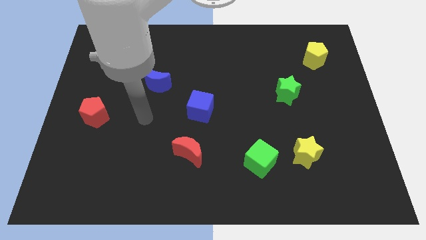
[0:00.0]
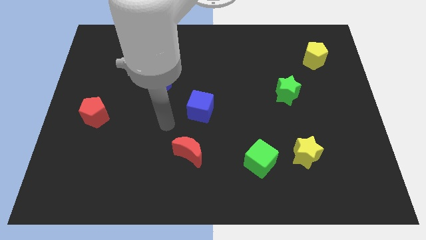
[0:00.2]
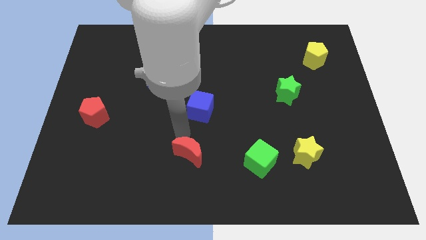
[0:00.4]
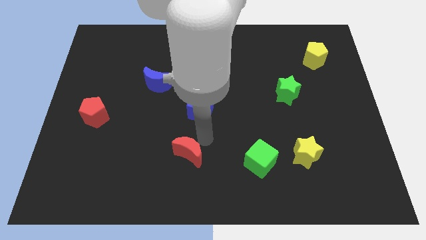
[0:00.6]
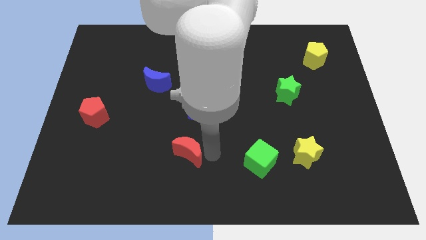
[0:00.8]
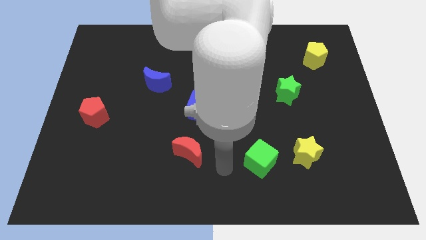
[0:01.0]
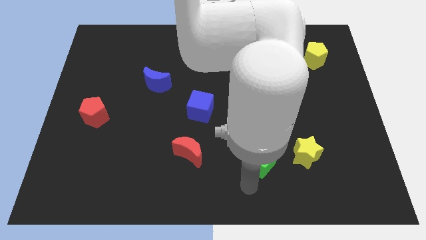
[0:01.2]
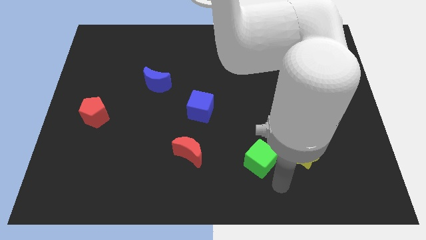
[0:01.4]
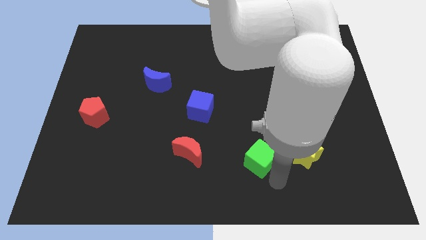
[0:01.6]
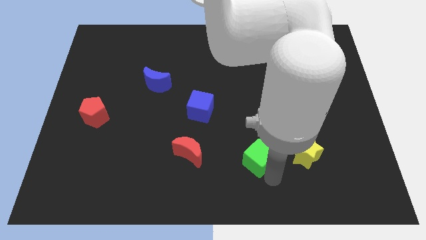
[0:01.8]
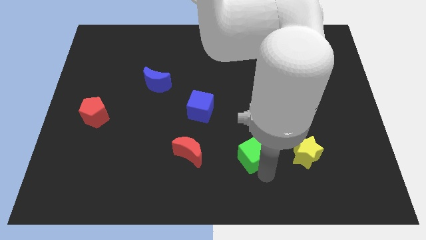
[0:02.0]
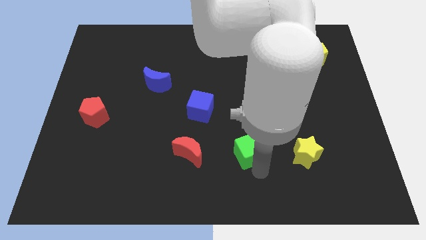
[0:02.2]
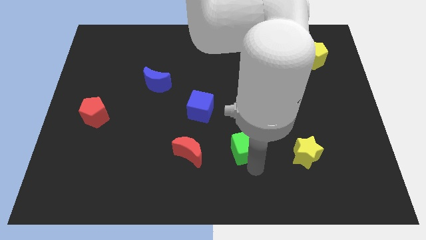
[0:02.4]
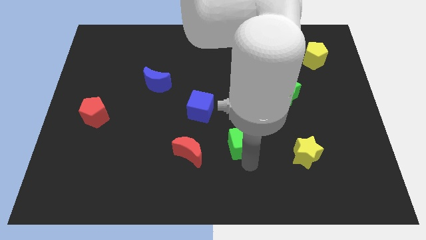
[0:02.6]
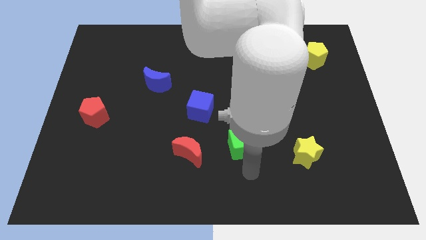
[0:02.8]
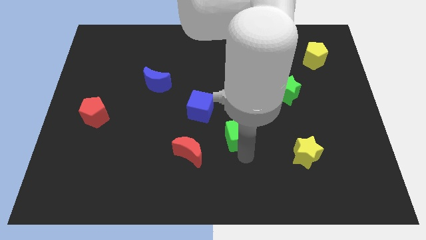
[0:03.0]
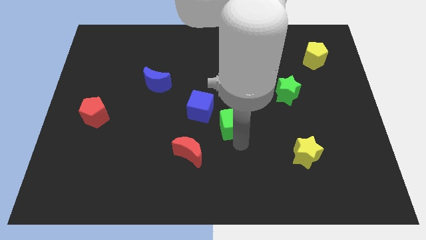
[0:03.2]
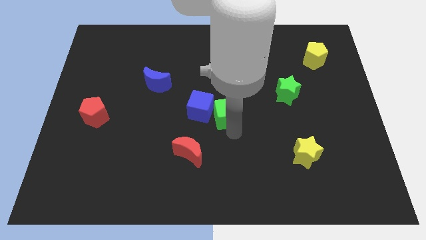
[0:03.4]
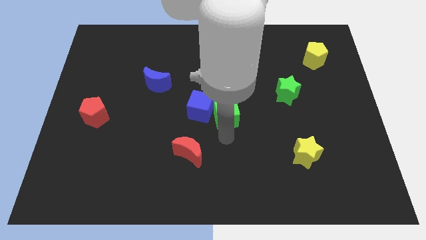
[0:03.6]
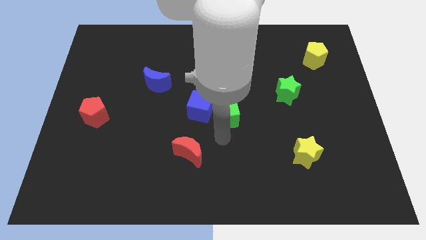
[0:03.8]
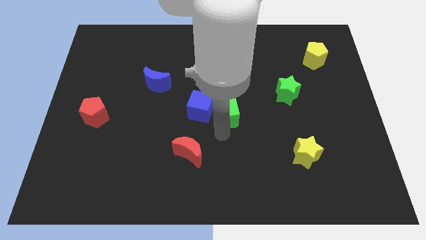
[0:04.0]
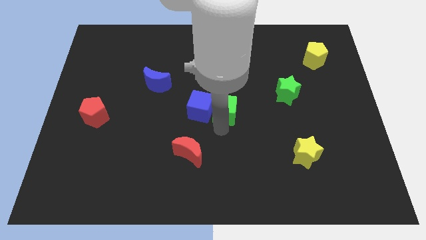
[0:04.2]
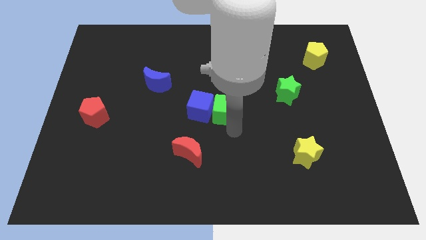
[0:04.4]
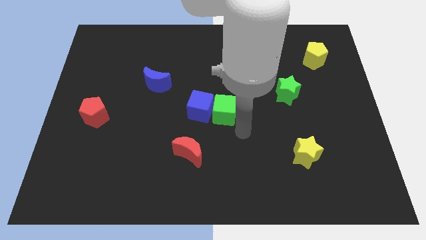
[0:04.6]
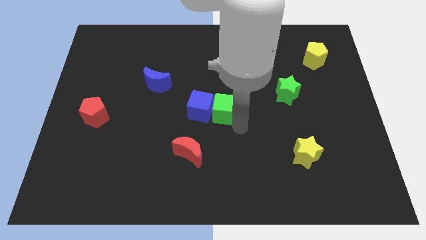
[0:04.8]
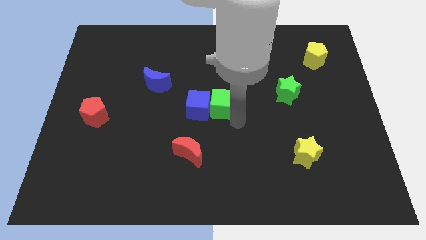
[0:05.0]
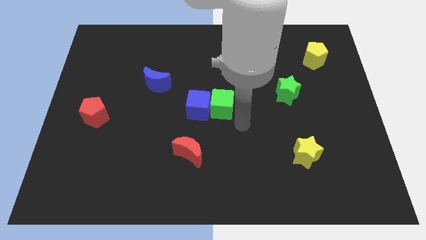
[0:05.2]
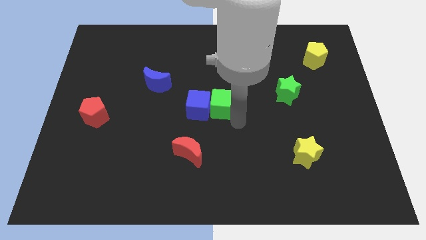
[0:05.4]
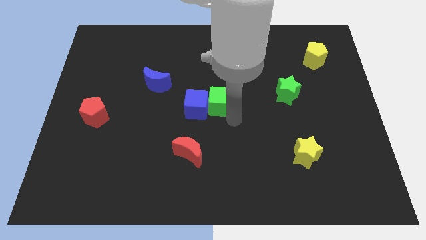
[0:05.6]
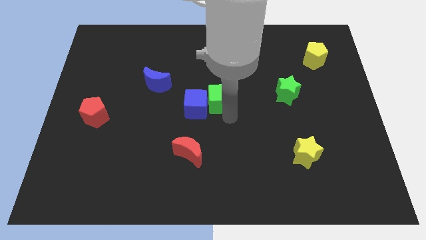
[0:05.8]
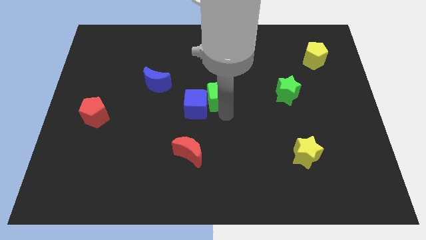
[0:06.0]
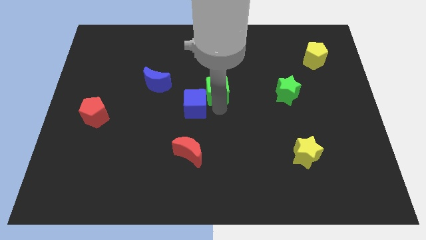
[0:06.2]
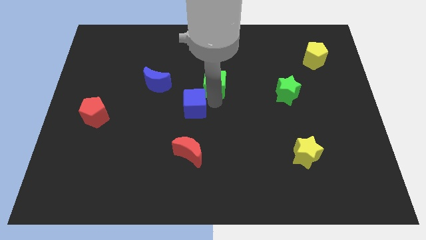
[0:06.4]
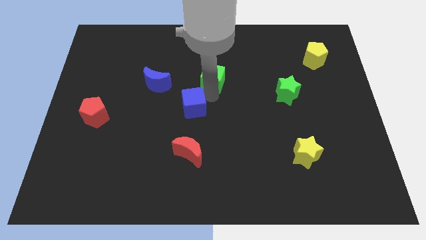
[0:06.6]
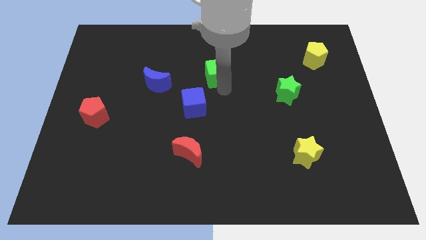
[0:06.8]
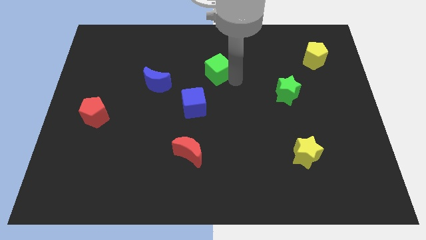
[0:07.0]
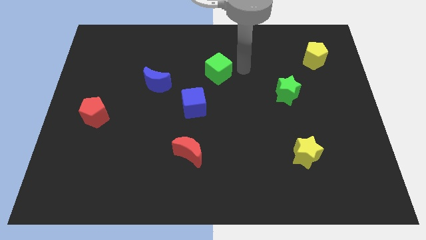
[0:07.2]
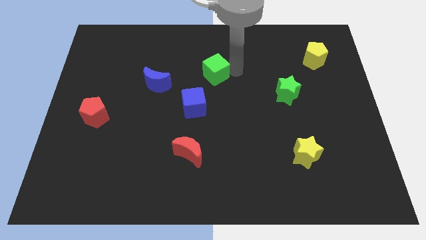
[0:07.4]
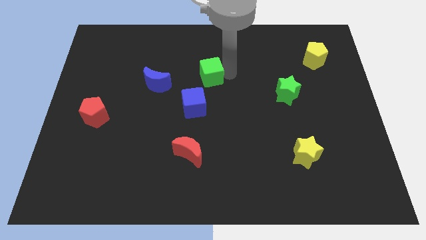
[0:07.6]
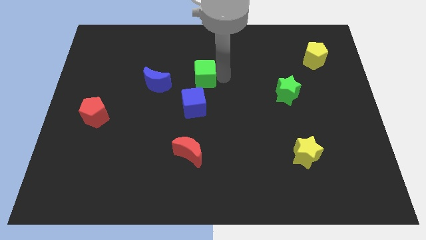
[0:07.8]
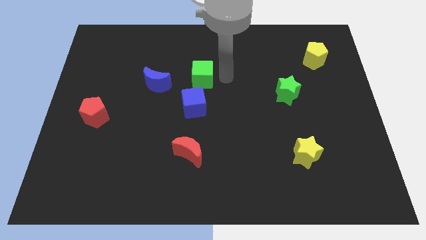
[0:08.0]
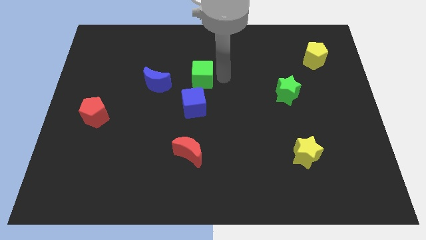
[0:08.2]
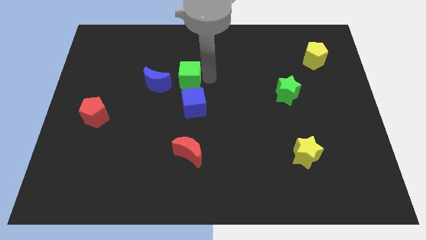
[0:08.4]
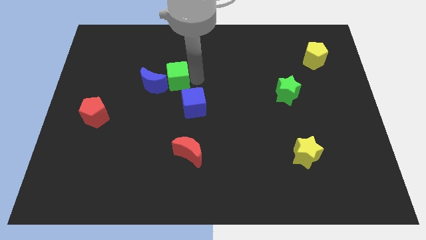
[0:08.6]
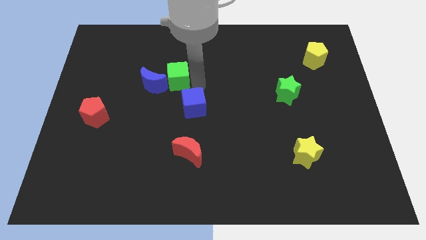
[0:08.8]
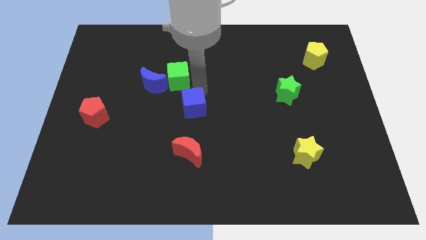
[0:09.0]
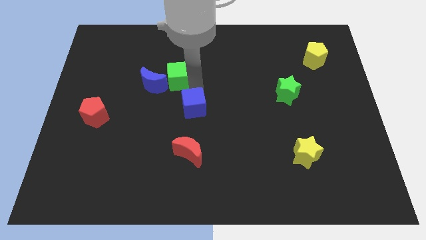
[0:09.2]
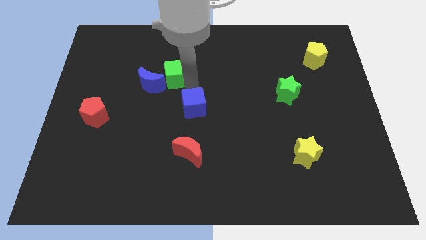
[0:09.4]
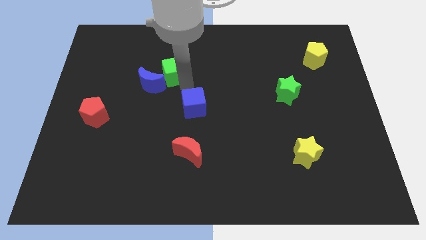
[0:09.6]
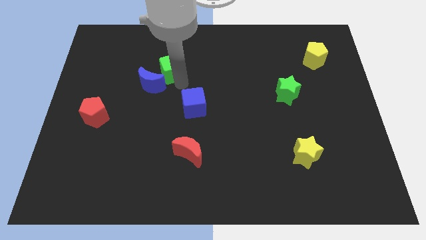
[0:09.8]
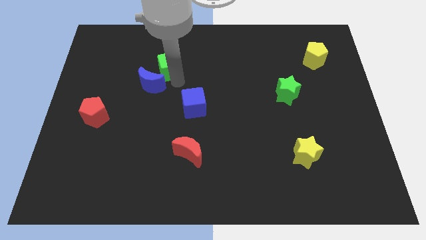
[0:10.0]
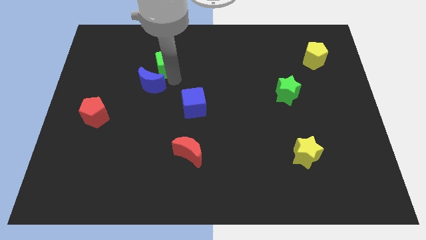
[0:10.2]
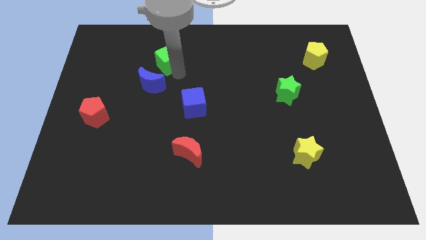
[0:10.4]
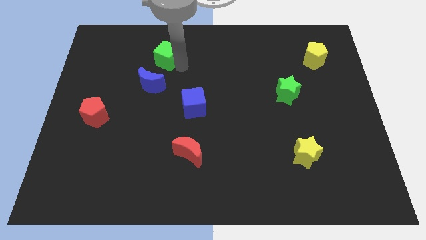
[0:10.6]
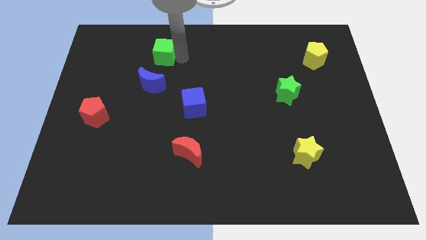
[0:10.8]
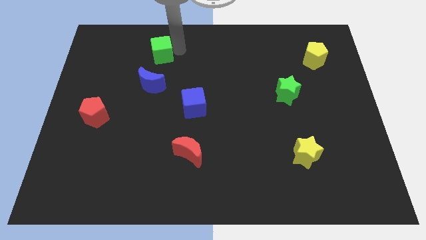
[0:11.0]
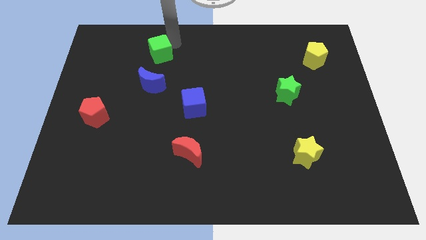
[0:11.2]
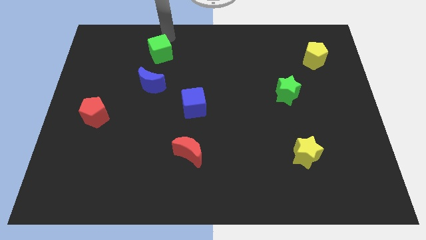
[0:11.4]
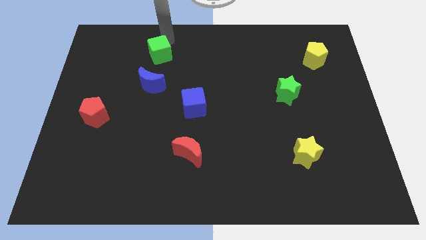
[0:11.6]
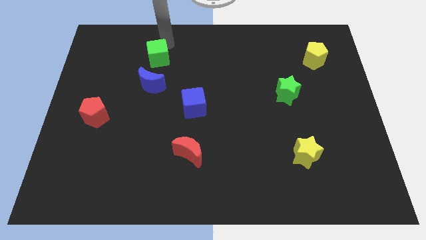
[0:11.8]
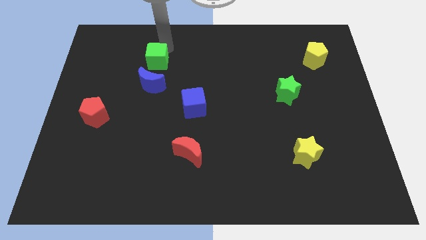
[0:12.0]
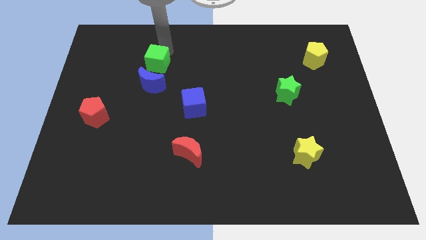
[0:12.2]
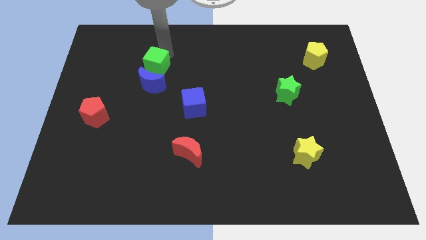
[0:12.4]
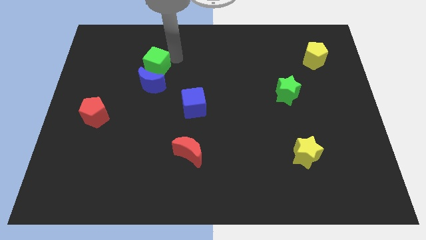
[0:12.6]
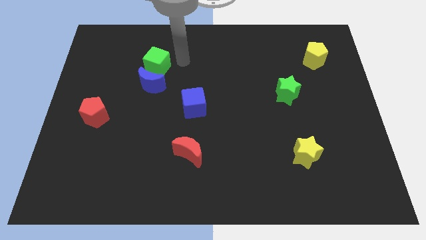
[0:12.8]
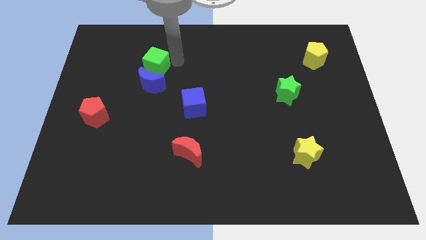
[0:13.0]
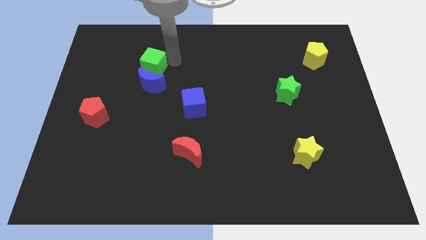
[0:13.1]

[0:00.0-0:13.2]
slide the green cube diagonally up and to the left of the blue moon

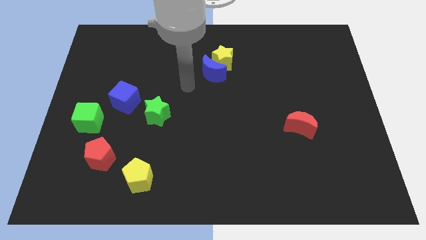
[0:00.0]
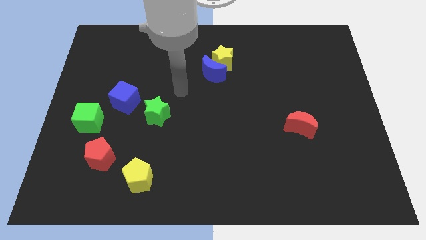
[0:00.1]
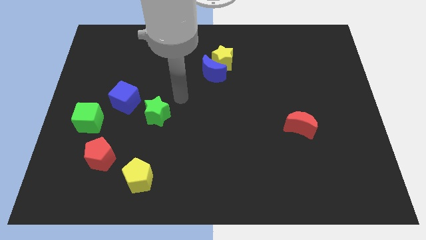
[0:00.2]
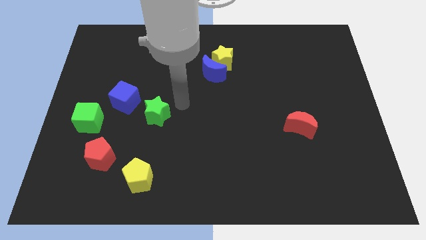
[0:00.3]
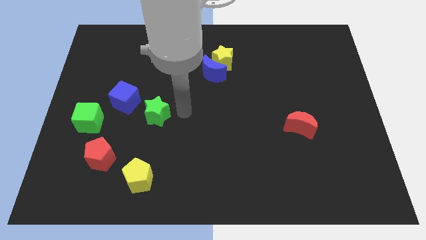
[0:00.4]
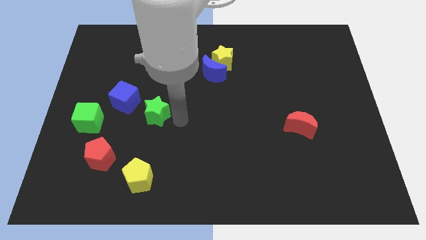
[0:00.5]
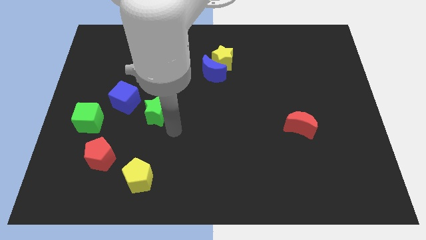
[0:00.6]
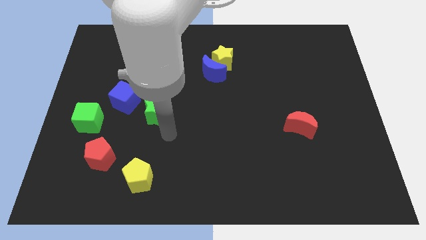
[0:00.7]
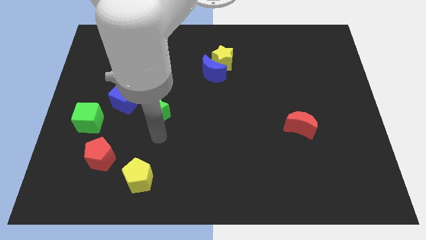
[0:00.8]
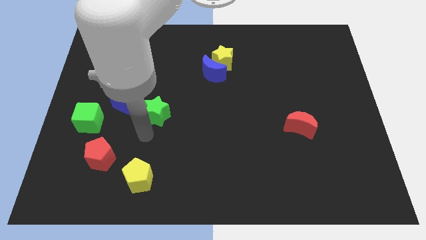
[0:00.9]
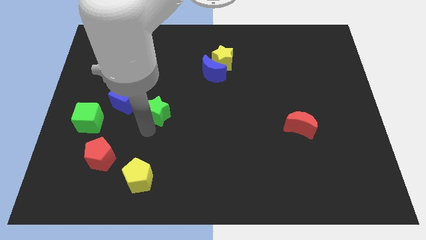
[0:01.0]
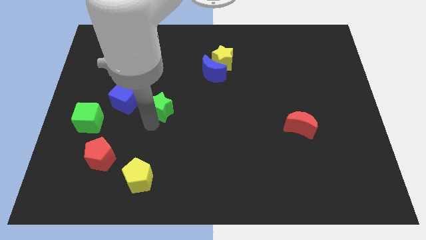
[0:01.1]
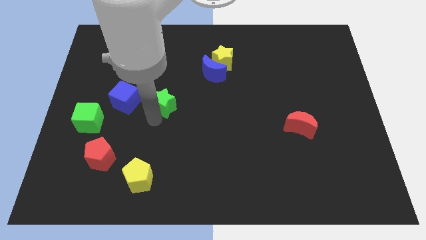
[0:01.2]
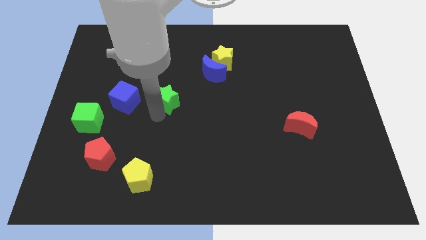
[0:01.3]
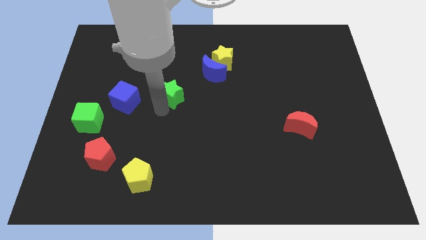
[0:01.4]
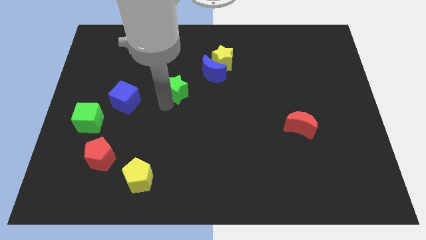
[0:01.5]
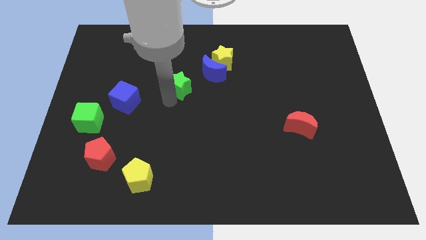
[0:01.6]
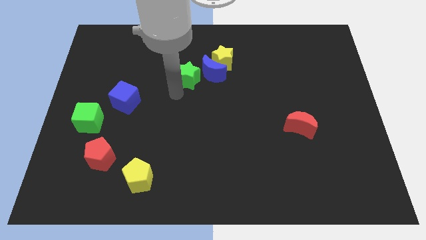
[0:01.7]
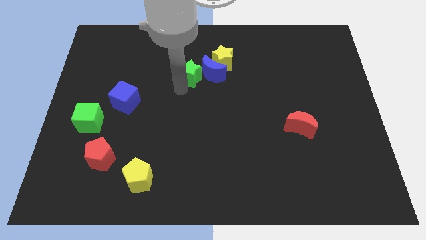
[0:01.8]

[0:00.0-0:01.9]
push the green star diagonally up and to the left of the blue moon
